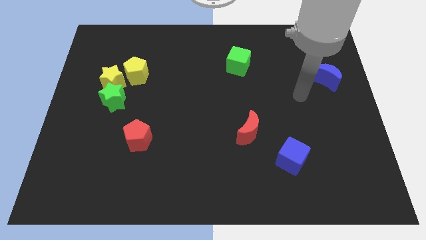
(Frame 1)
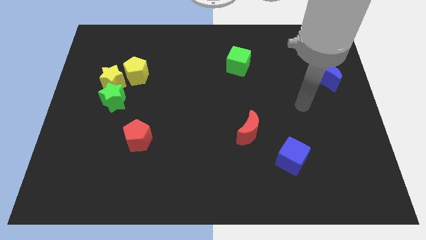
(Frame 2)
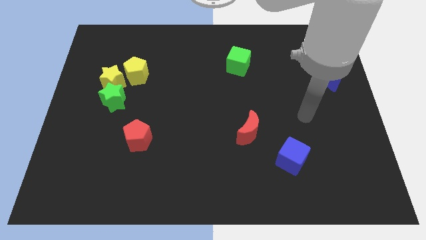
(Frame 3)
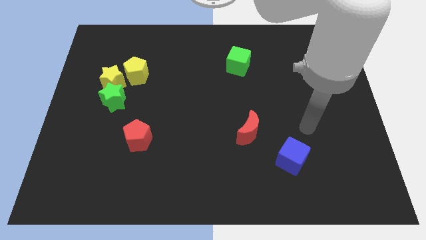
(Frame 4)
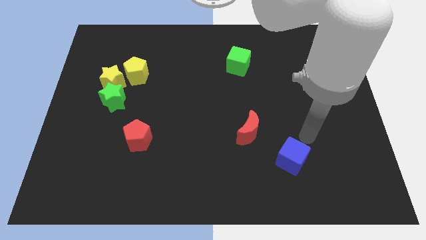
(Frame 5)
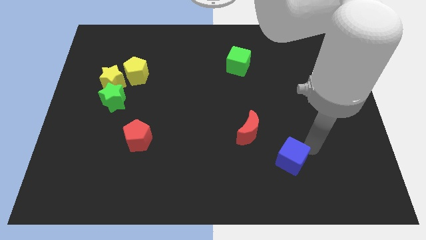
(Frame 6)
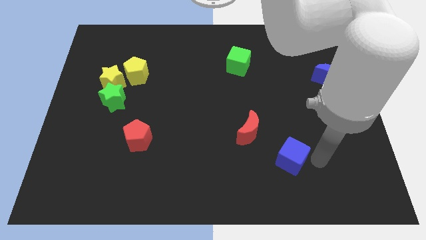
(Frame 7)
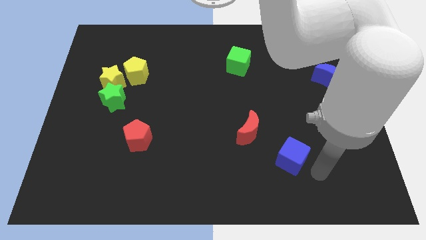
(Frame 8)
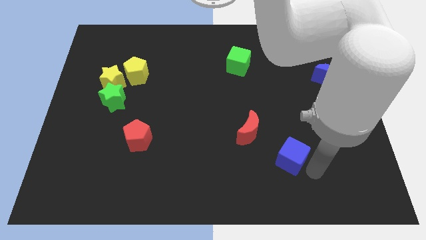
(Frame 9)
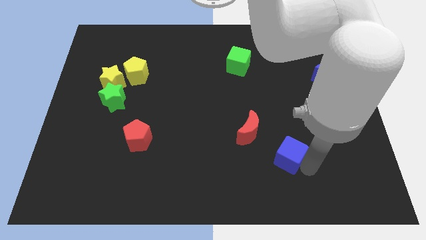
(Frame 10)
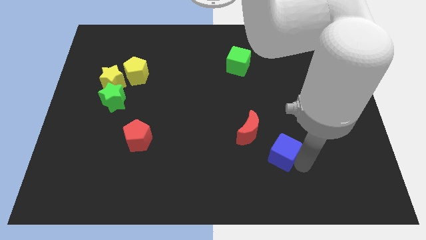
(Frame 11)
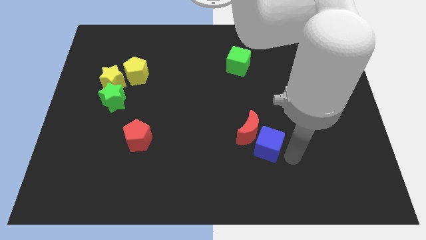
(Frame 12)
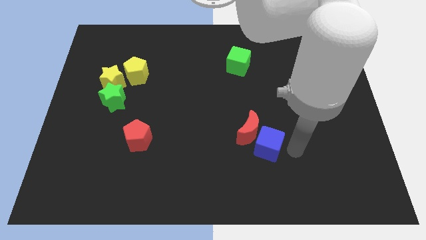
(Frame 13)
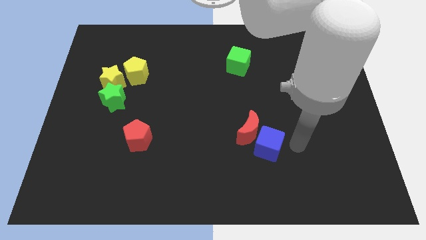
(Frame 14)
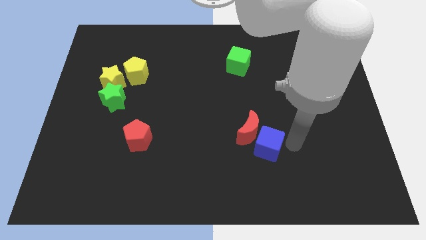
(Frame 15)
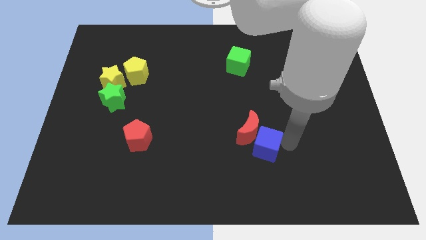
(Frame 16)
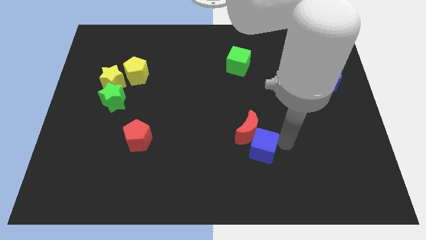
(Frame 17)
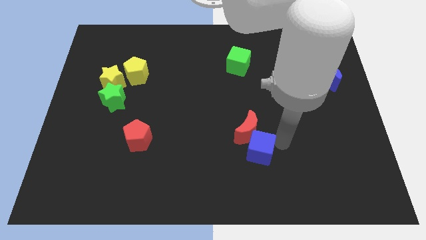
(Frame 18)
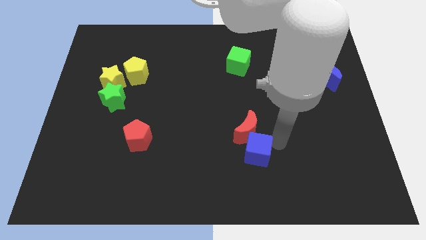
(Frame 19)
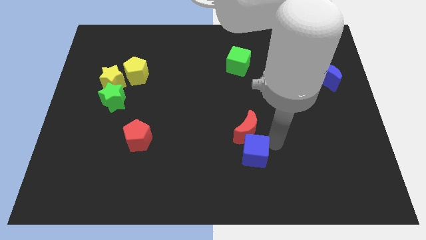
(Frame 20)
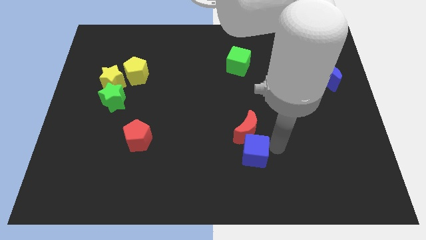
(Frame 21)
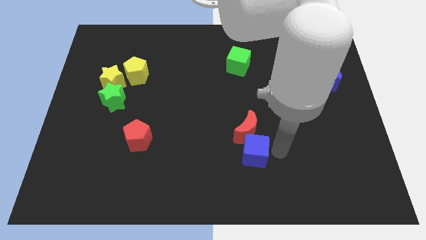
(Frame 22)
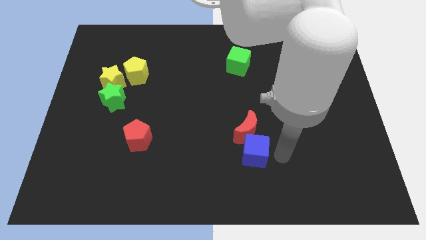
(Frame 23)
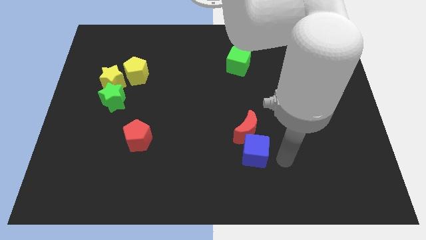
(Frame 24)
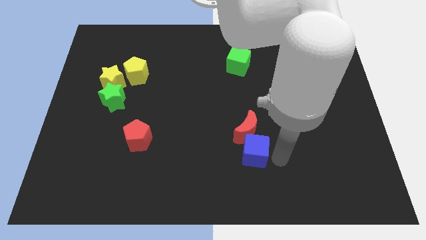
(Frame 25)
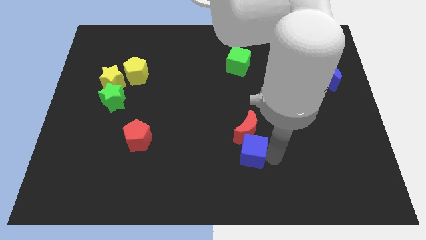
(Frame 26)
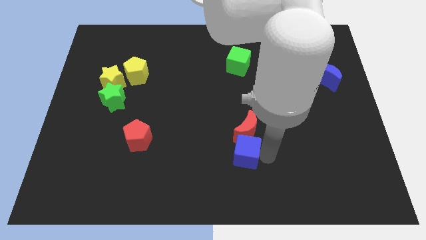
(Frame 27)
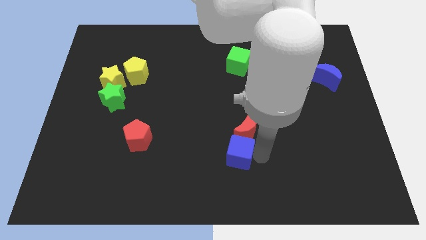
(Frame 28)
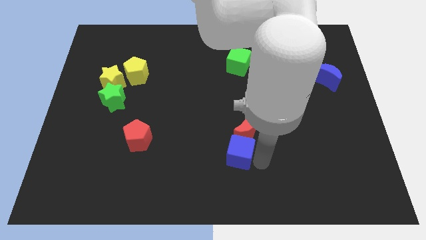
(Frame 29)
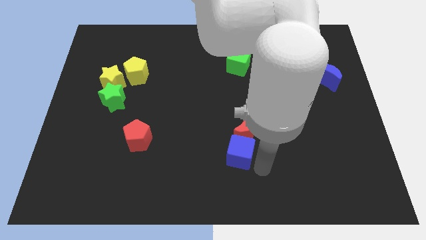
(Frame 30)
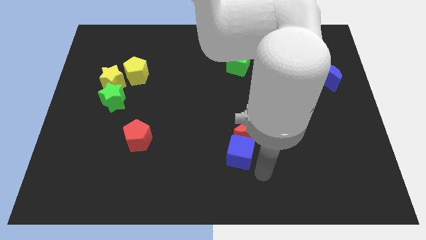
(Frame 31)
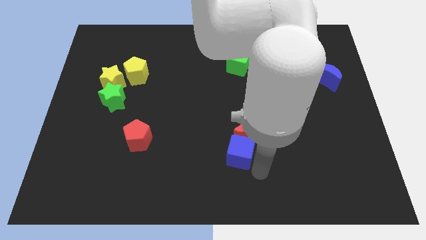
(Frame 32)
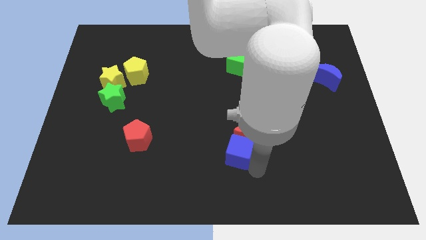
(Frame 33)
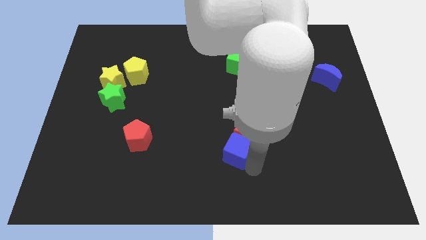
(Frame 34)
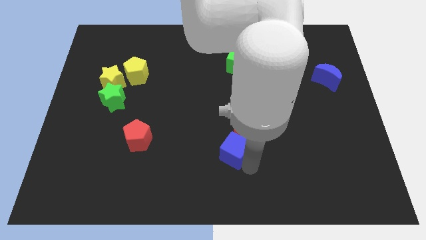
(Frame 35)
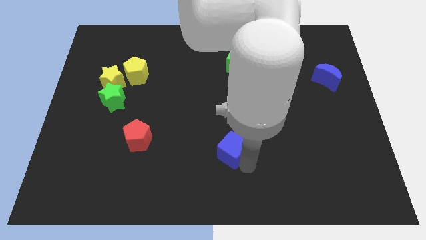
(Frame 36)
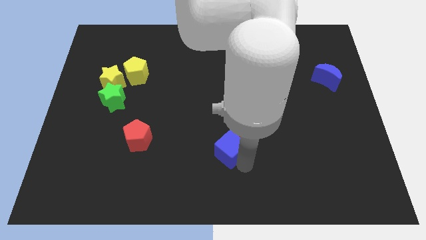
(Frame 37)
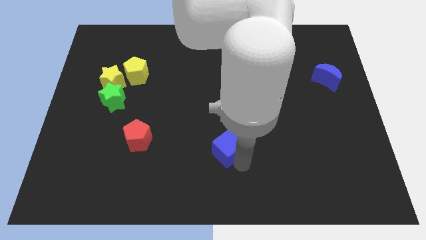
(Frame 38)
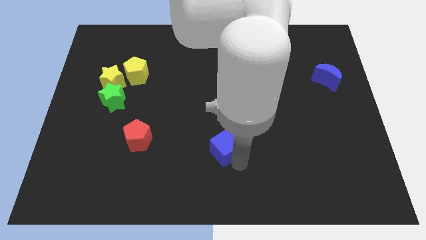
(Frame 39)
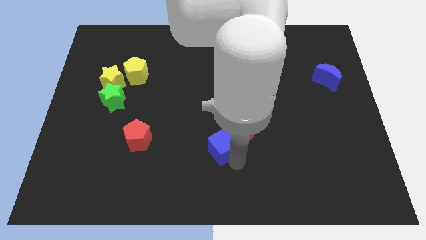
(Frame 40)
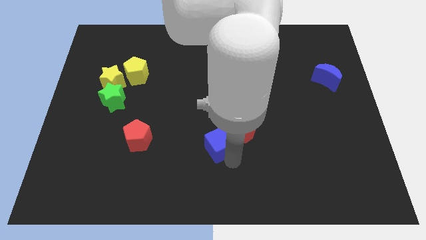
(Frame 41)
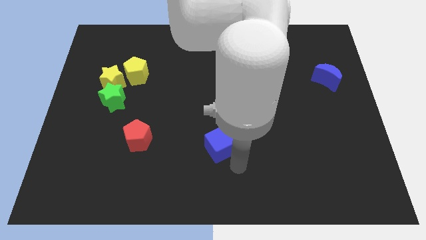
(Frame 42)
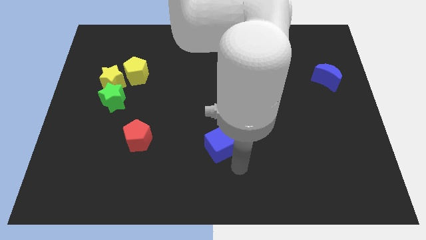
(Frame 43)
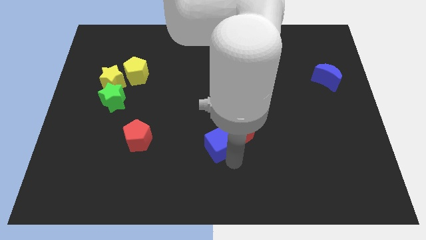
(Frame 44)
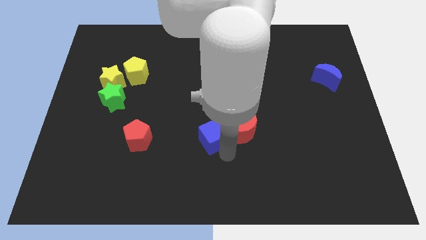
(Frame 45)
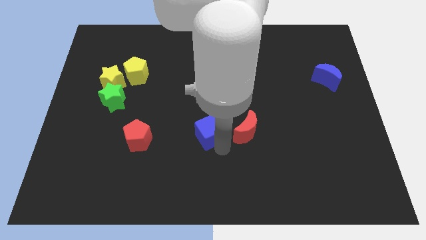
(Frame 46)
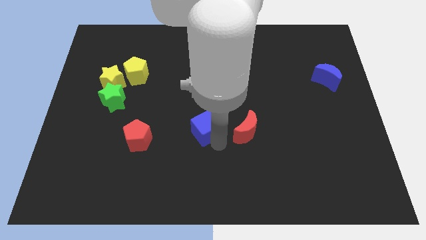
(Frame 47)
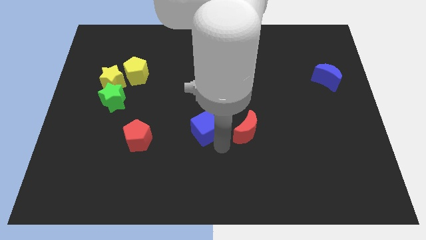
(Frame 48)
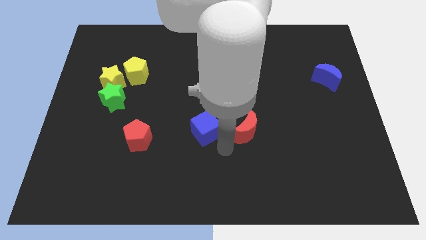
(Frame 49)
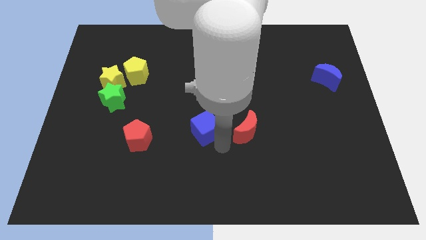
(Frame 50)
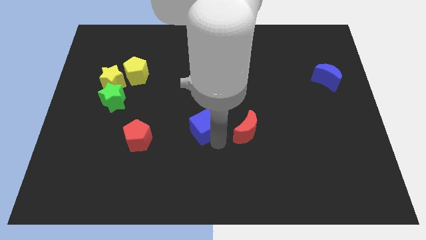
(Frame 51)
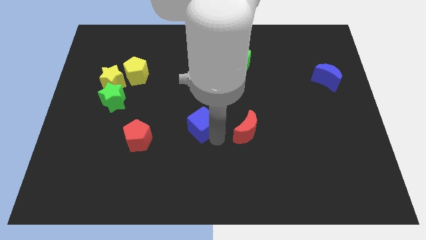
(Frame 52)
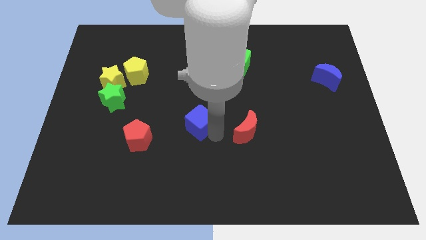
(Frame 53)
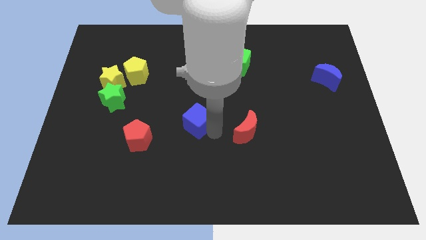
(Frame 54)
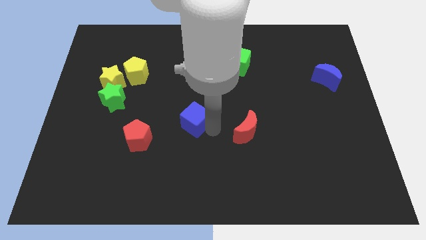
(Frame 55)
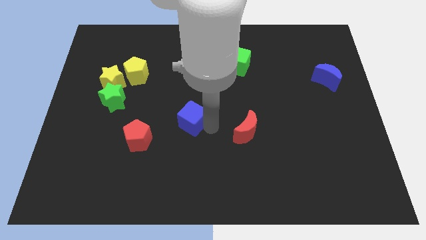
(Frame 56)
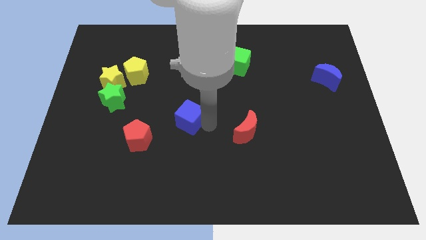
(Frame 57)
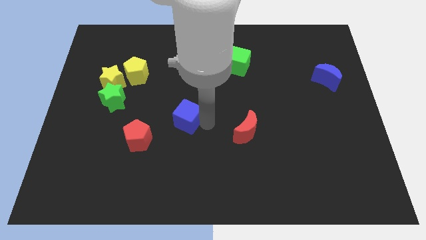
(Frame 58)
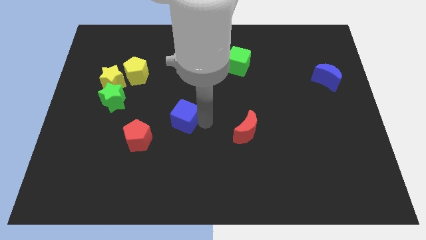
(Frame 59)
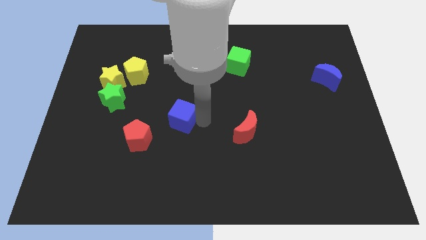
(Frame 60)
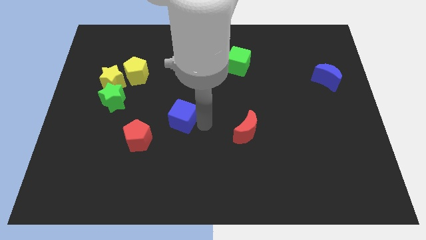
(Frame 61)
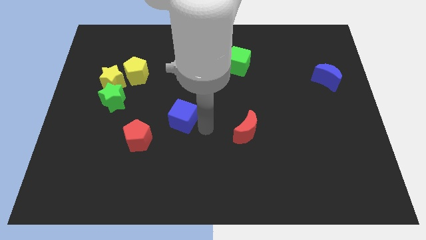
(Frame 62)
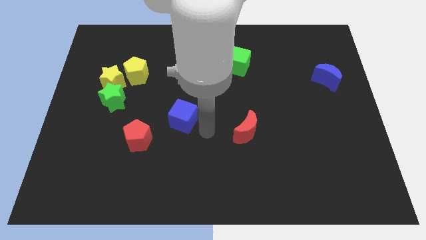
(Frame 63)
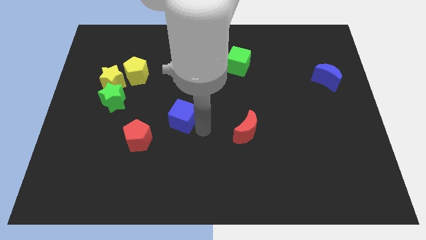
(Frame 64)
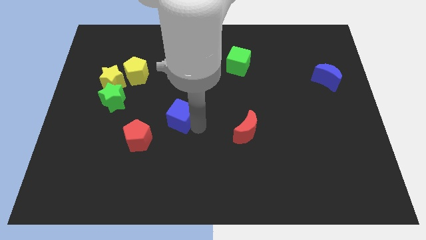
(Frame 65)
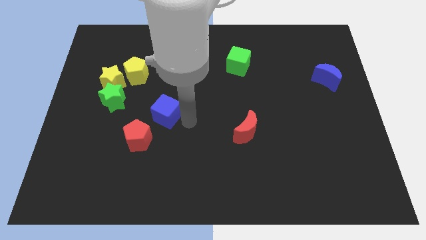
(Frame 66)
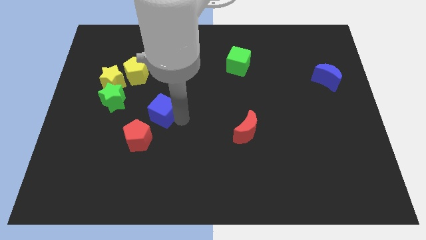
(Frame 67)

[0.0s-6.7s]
move the blue cube to the top of the red pentagon
